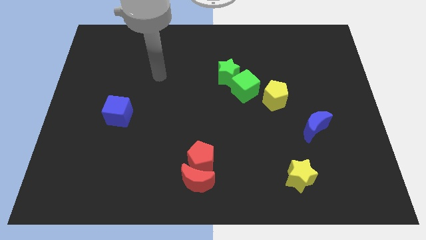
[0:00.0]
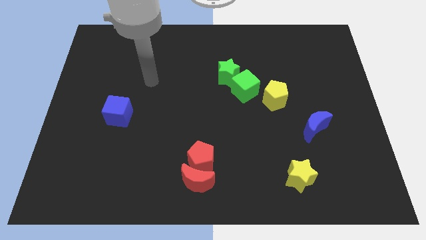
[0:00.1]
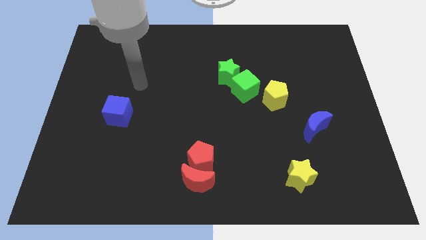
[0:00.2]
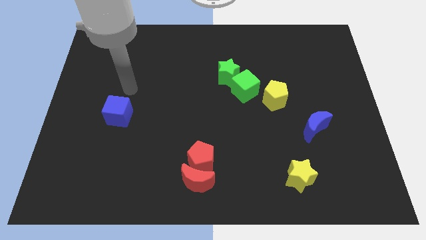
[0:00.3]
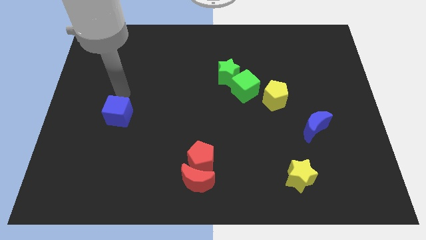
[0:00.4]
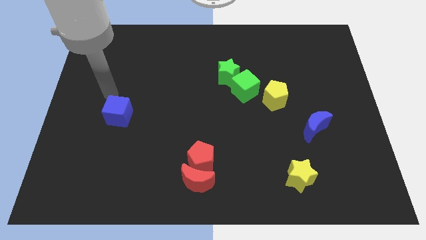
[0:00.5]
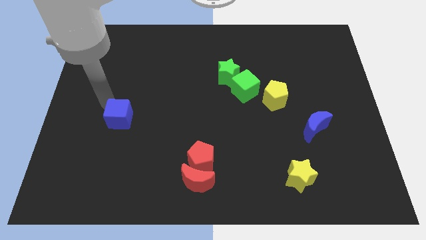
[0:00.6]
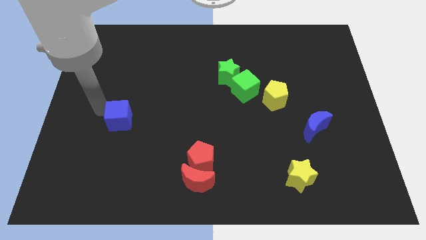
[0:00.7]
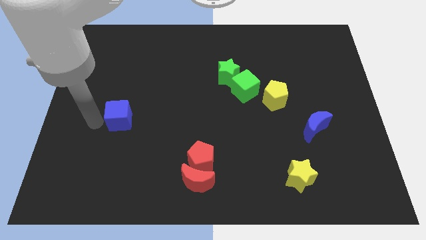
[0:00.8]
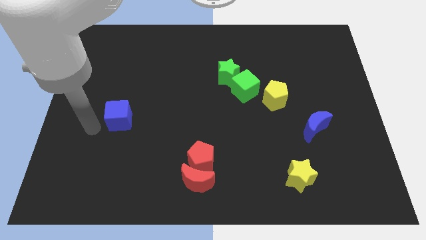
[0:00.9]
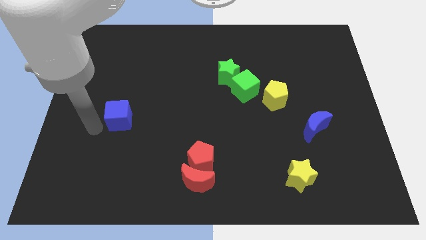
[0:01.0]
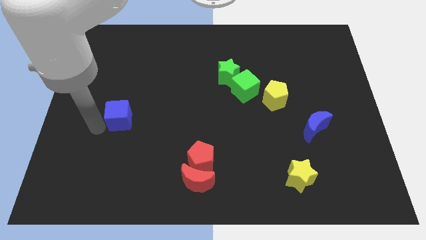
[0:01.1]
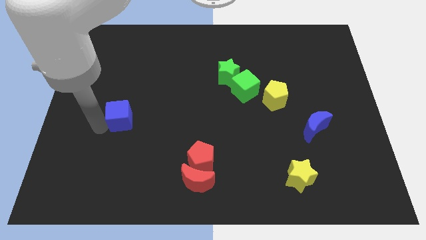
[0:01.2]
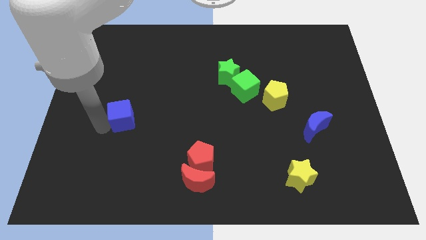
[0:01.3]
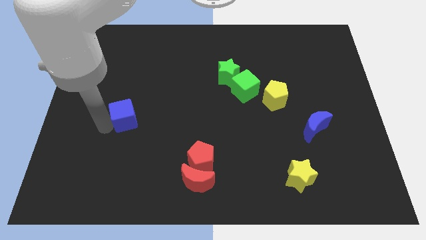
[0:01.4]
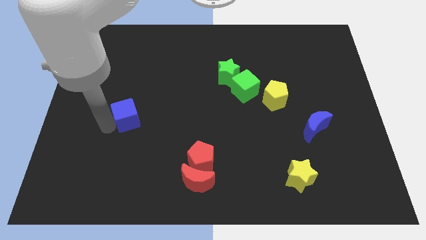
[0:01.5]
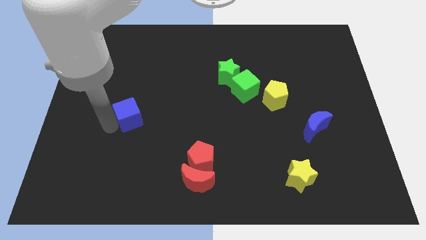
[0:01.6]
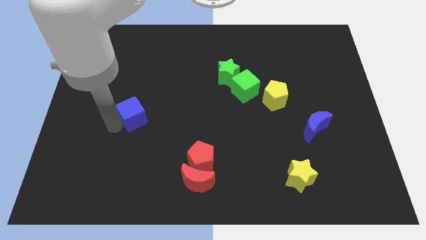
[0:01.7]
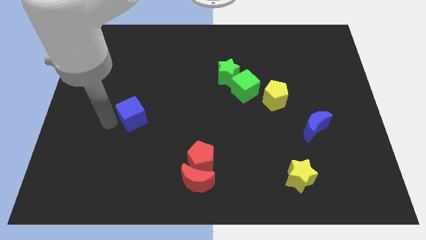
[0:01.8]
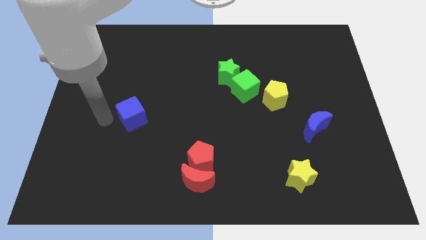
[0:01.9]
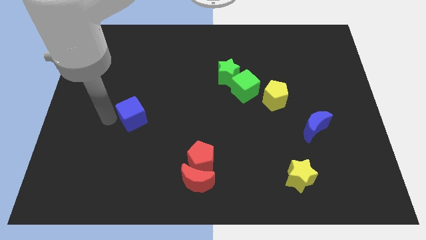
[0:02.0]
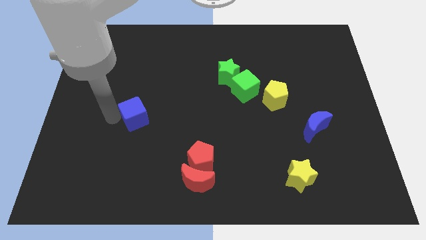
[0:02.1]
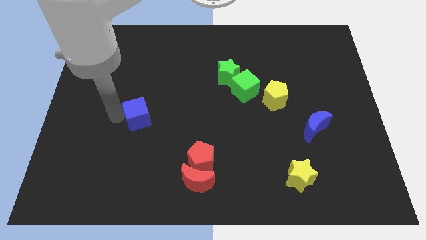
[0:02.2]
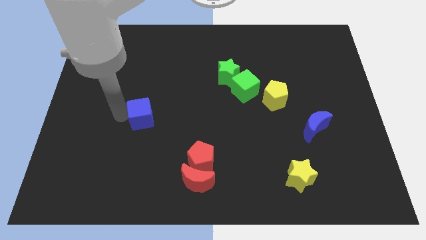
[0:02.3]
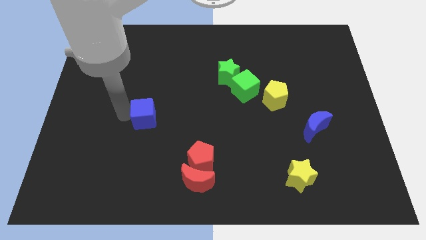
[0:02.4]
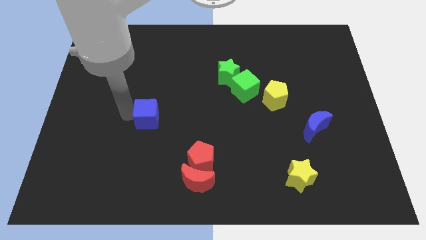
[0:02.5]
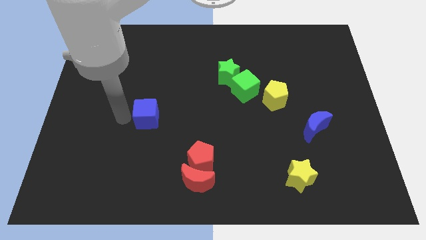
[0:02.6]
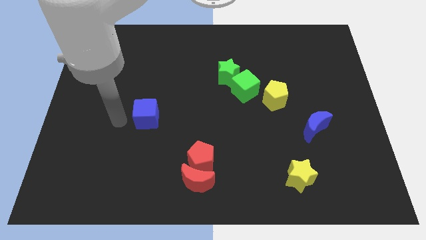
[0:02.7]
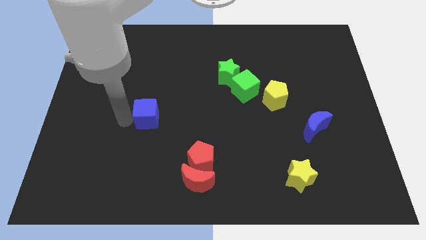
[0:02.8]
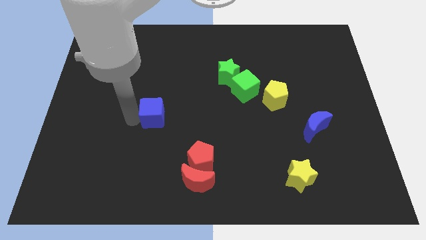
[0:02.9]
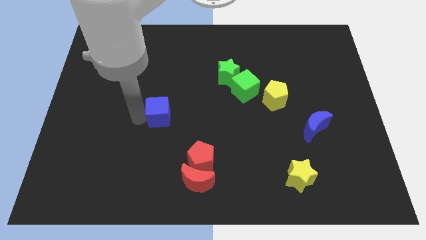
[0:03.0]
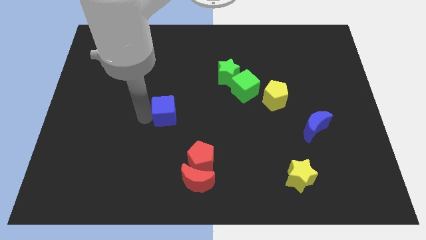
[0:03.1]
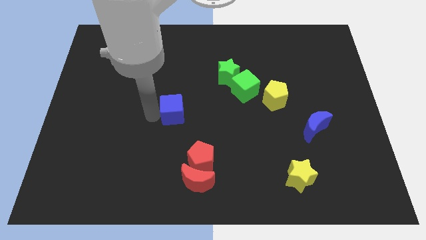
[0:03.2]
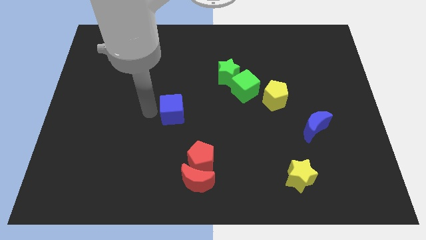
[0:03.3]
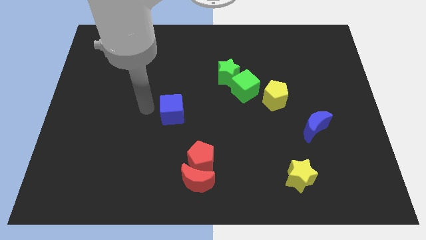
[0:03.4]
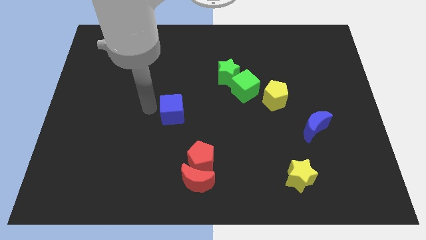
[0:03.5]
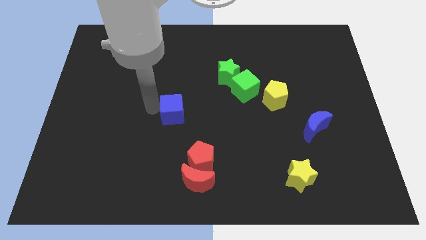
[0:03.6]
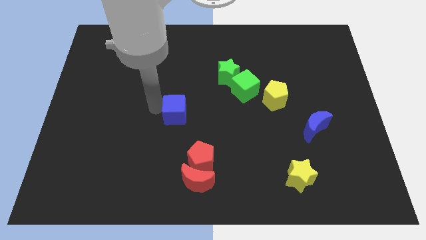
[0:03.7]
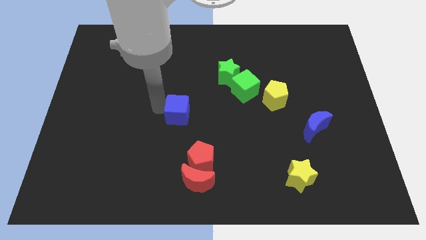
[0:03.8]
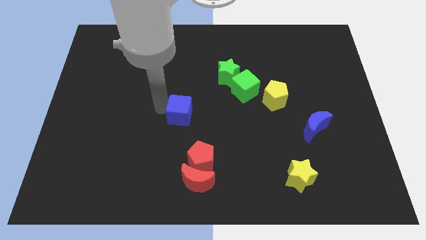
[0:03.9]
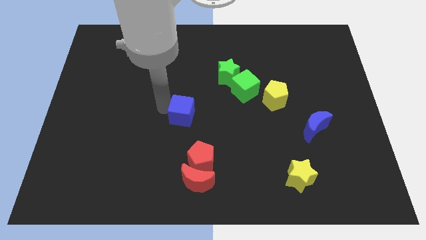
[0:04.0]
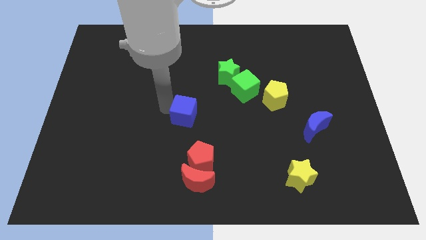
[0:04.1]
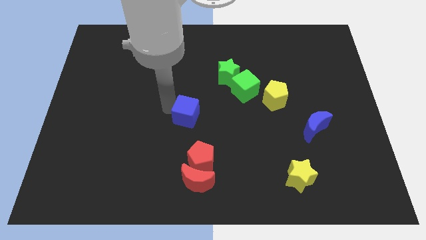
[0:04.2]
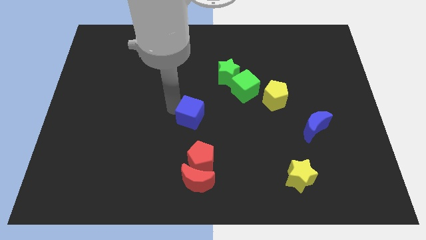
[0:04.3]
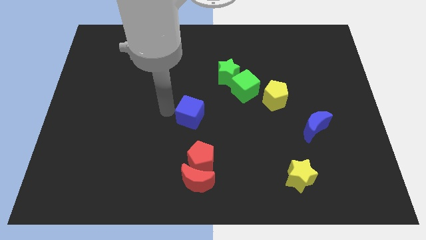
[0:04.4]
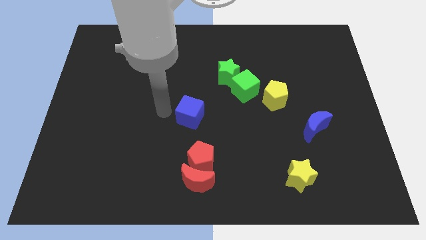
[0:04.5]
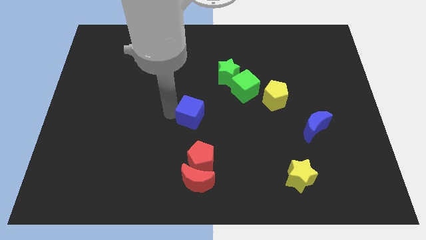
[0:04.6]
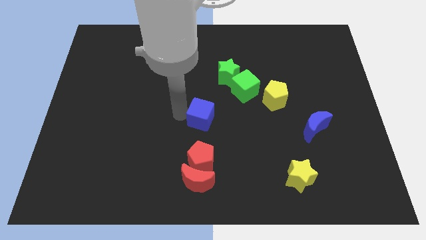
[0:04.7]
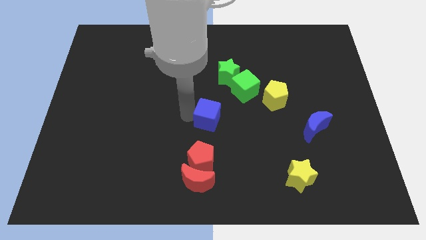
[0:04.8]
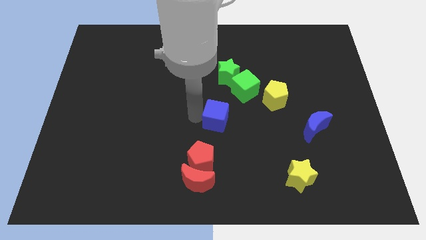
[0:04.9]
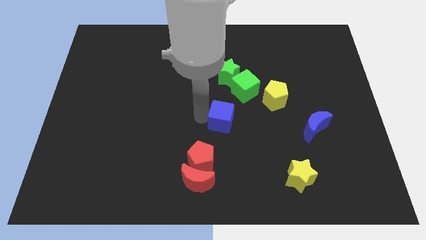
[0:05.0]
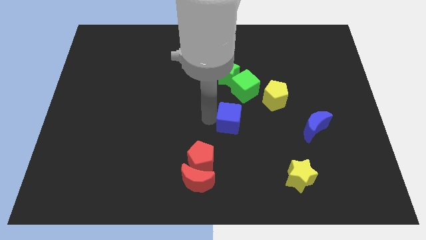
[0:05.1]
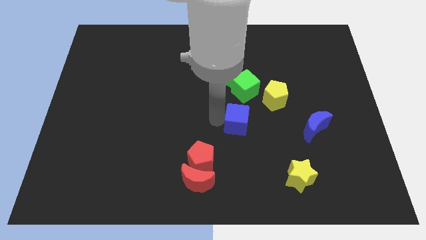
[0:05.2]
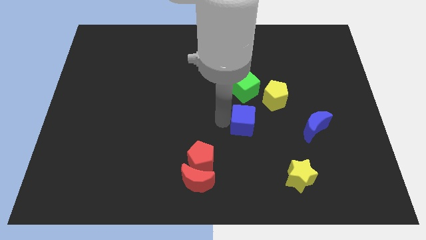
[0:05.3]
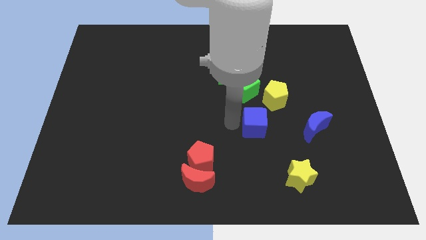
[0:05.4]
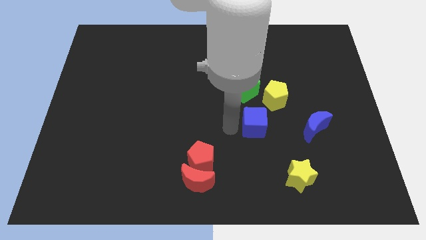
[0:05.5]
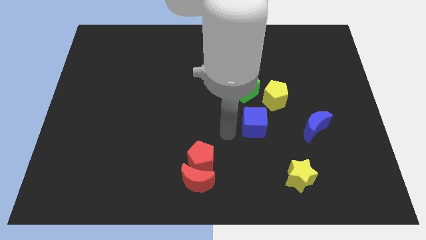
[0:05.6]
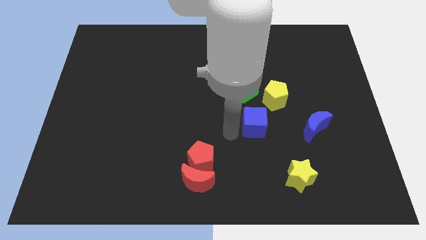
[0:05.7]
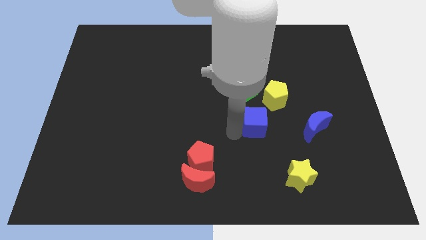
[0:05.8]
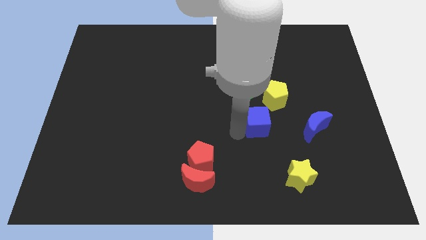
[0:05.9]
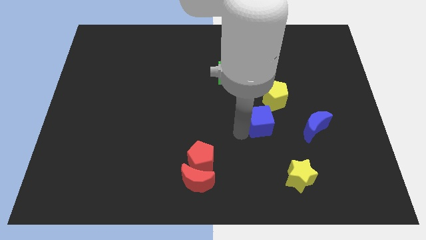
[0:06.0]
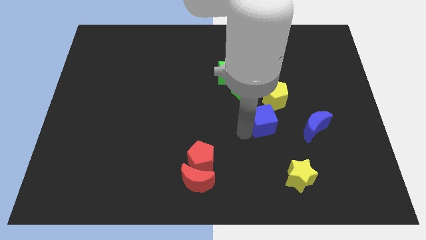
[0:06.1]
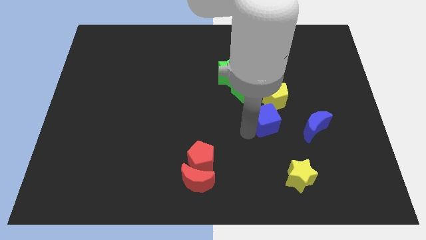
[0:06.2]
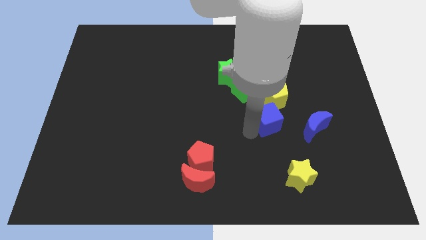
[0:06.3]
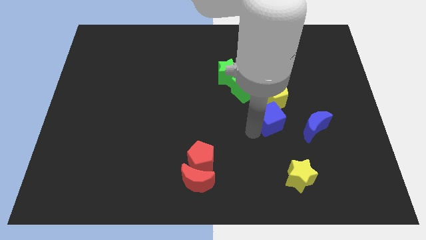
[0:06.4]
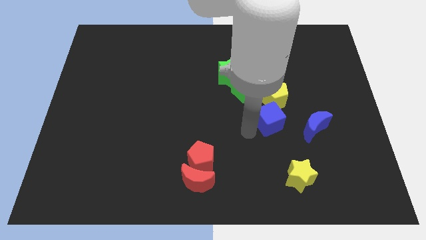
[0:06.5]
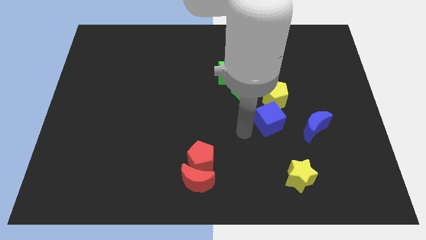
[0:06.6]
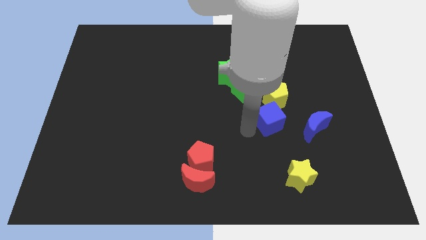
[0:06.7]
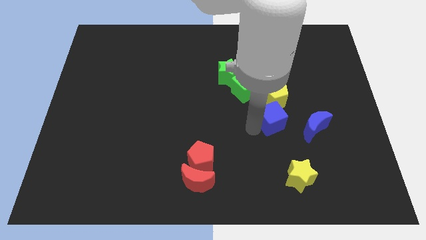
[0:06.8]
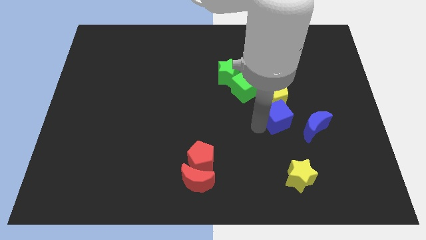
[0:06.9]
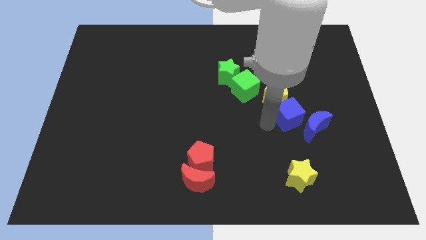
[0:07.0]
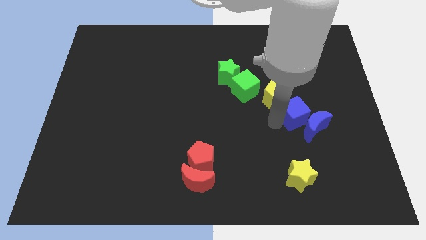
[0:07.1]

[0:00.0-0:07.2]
push the blue cube above the blue moon
